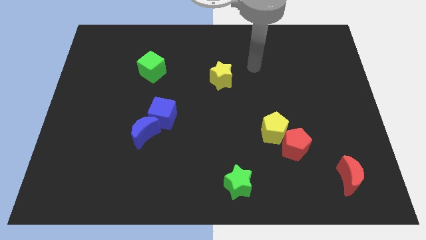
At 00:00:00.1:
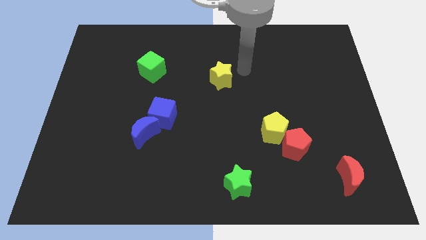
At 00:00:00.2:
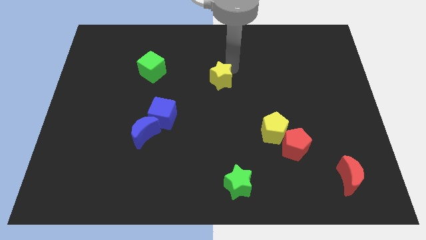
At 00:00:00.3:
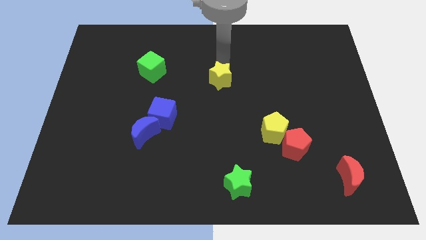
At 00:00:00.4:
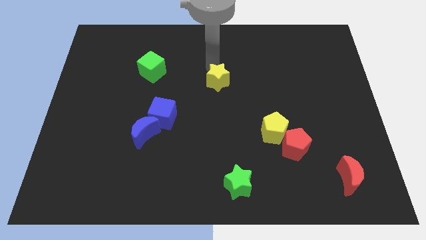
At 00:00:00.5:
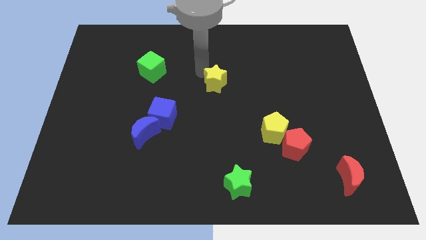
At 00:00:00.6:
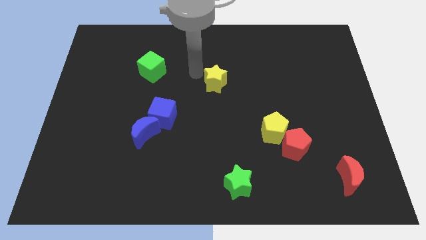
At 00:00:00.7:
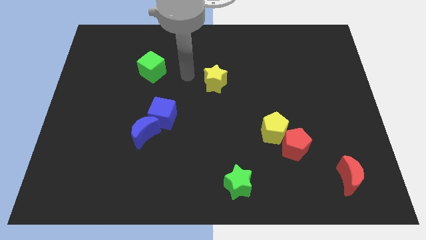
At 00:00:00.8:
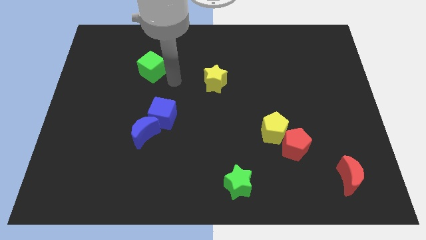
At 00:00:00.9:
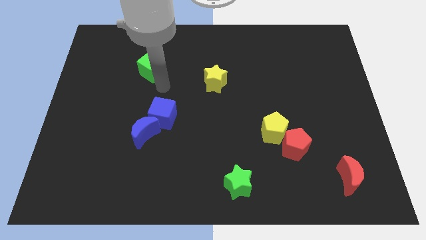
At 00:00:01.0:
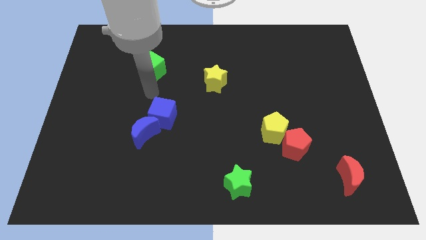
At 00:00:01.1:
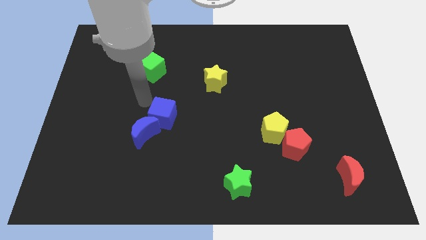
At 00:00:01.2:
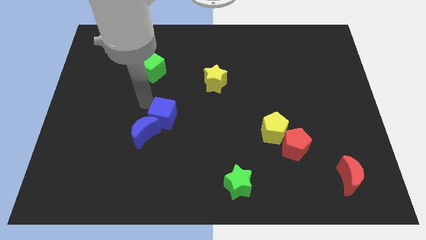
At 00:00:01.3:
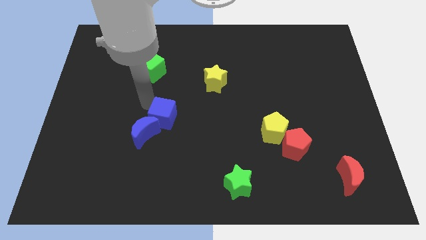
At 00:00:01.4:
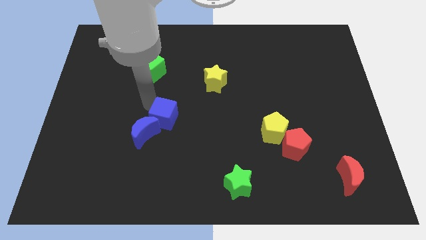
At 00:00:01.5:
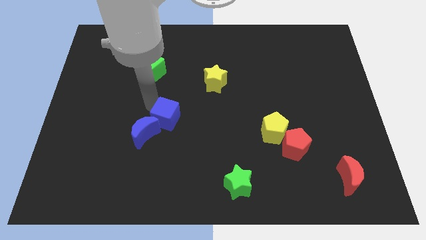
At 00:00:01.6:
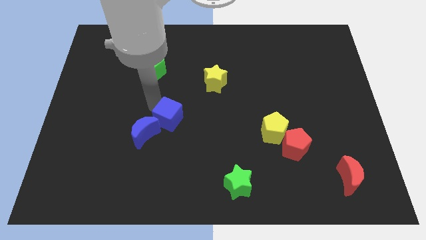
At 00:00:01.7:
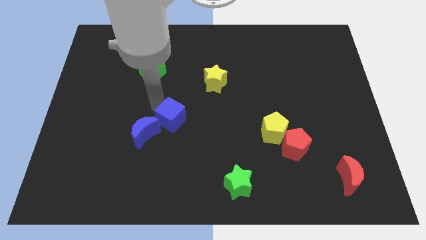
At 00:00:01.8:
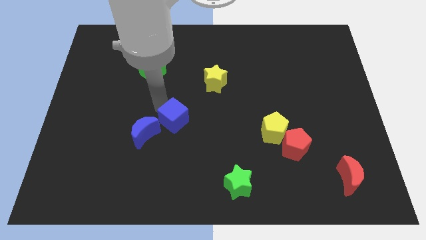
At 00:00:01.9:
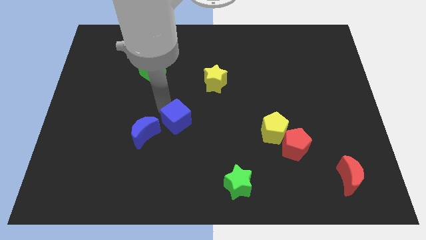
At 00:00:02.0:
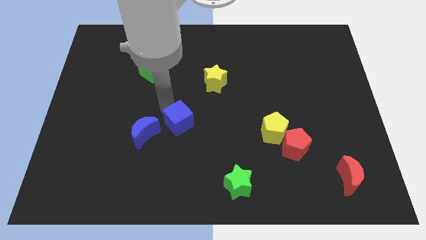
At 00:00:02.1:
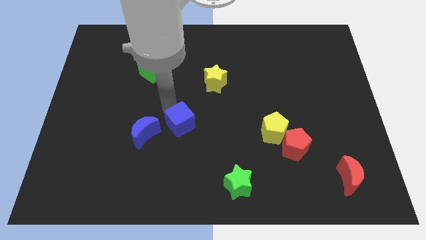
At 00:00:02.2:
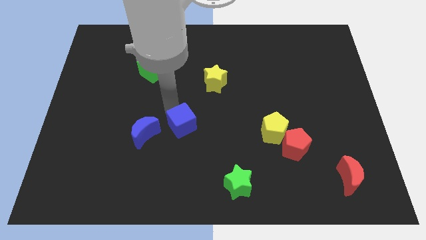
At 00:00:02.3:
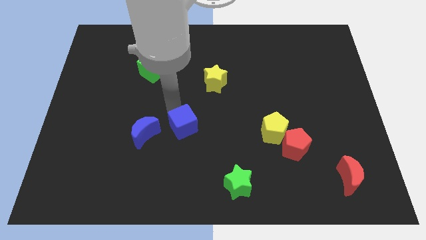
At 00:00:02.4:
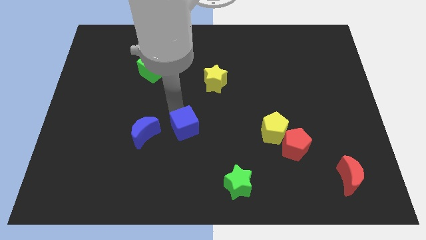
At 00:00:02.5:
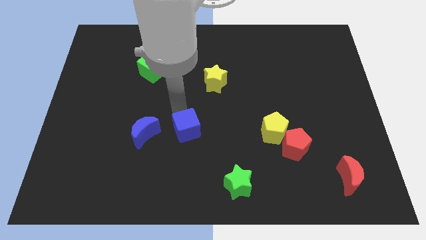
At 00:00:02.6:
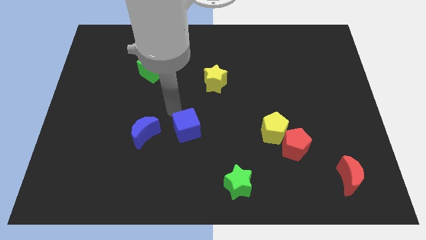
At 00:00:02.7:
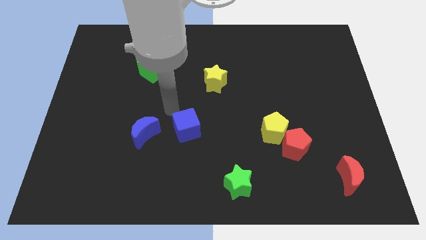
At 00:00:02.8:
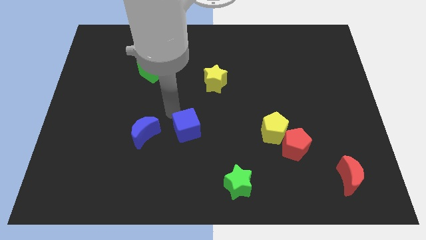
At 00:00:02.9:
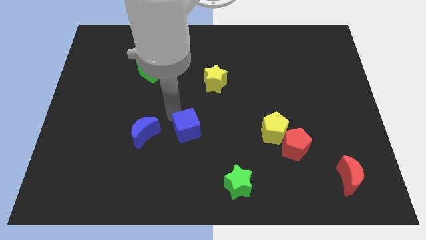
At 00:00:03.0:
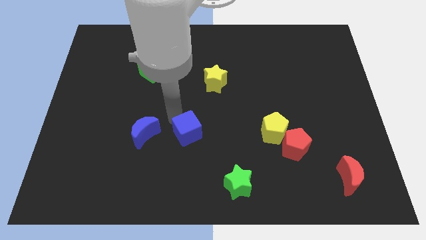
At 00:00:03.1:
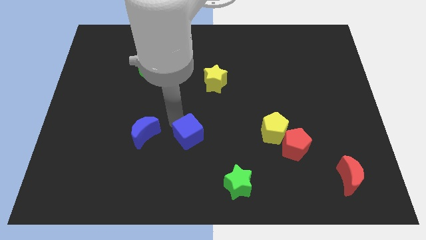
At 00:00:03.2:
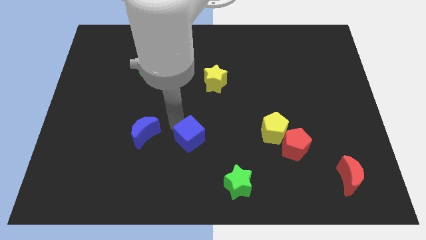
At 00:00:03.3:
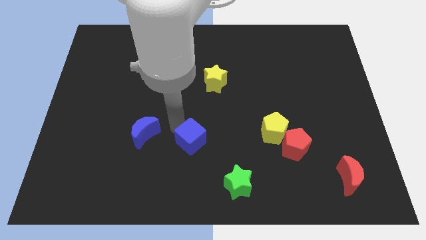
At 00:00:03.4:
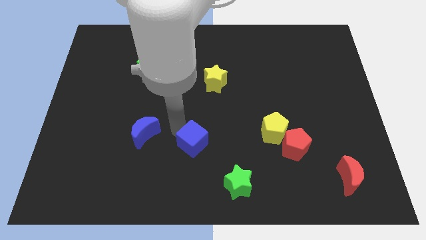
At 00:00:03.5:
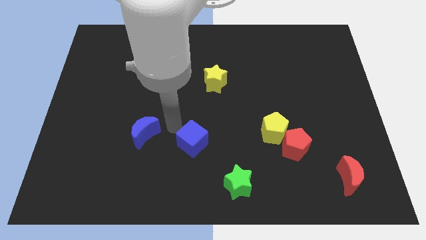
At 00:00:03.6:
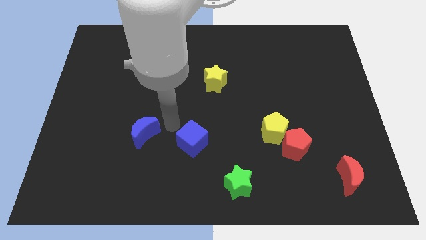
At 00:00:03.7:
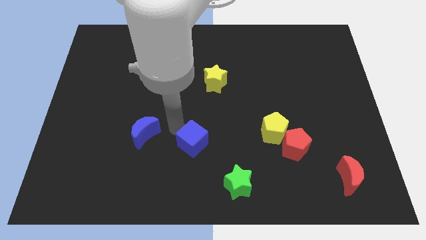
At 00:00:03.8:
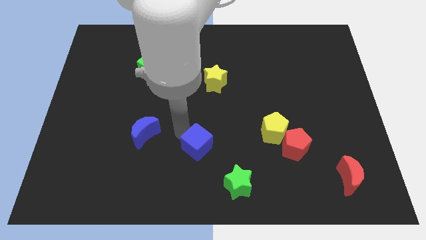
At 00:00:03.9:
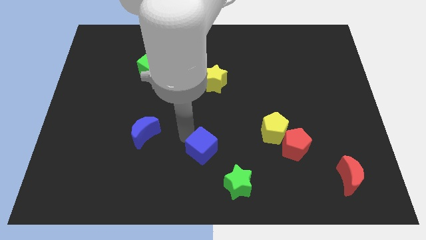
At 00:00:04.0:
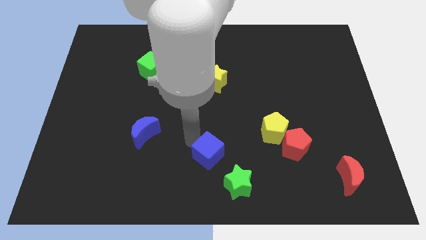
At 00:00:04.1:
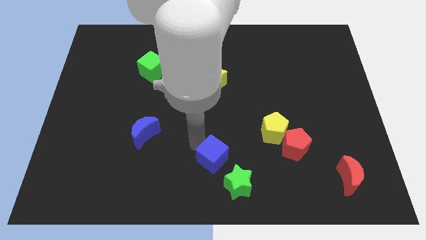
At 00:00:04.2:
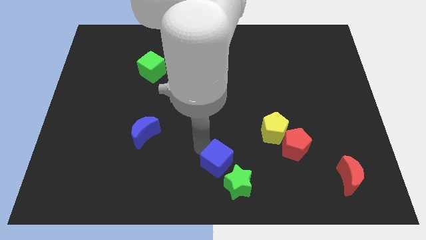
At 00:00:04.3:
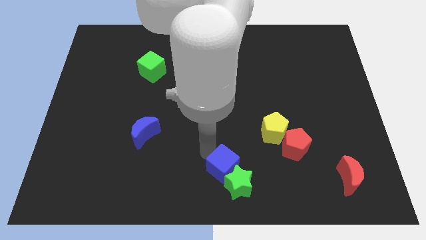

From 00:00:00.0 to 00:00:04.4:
slide the blue cube close to the green star

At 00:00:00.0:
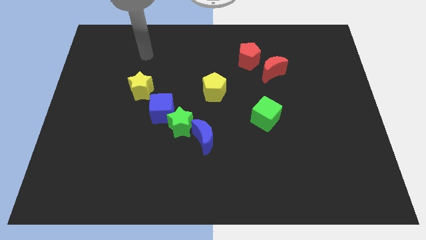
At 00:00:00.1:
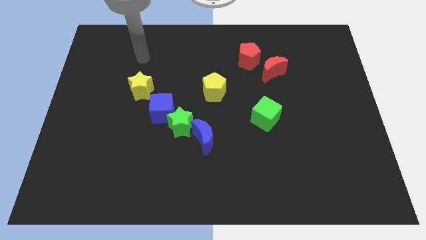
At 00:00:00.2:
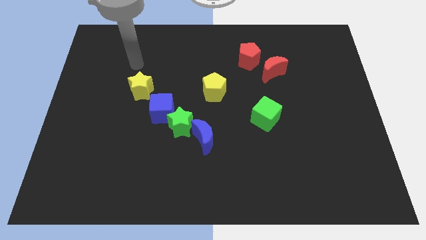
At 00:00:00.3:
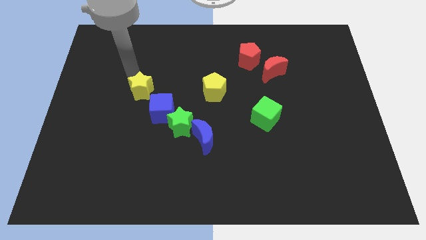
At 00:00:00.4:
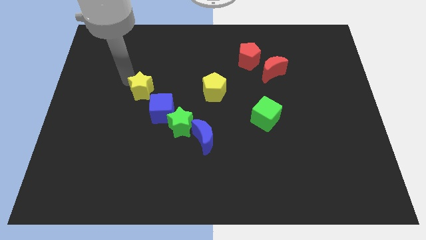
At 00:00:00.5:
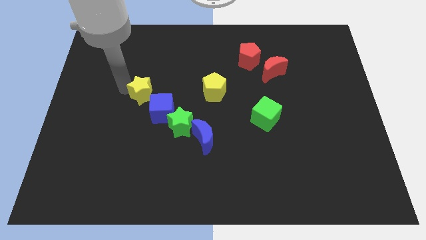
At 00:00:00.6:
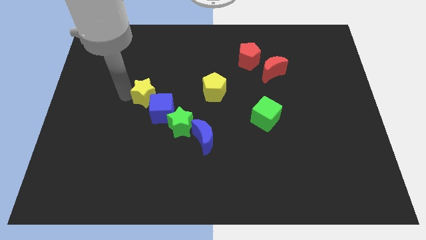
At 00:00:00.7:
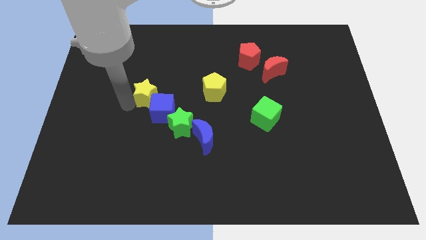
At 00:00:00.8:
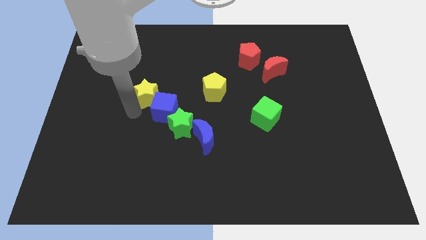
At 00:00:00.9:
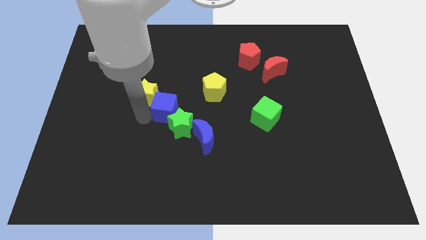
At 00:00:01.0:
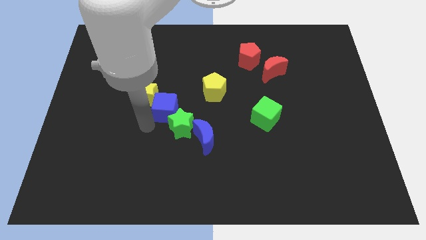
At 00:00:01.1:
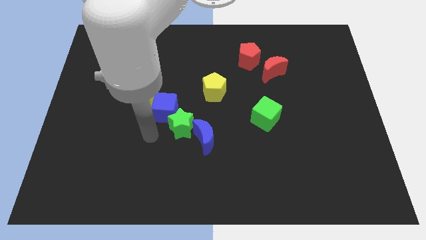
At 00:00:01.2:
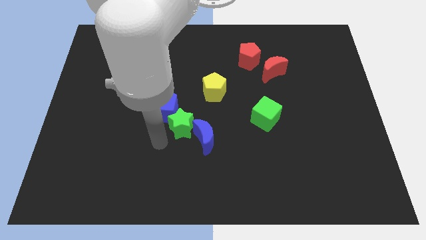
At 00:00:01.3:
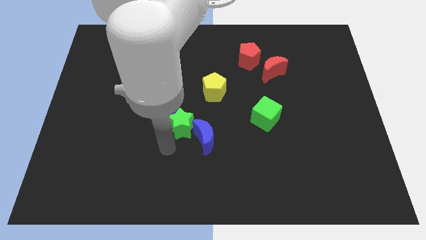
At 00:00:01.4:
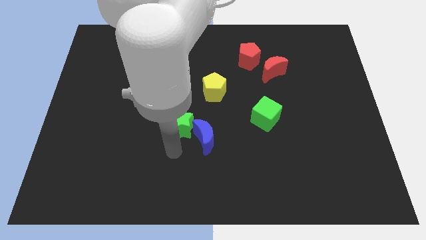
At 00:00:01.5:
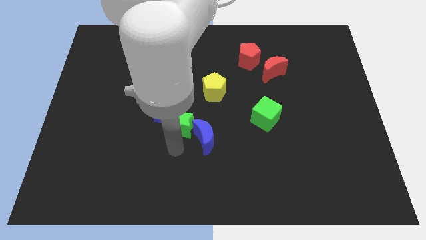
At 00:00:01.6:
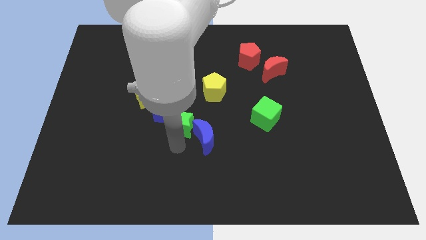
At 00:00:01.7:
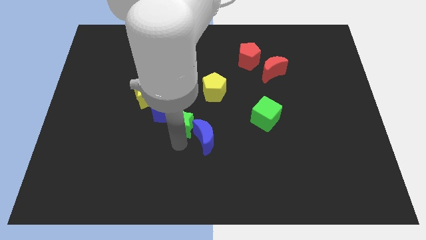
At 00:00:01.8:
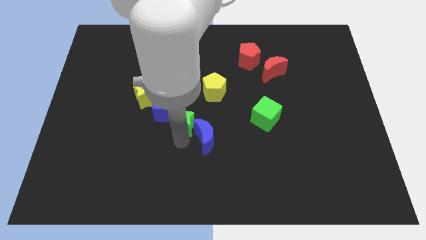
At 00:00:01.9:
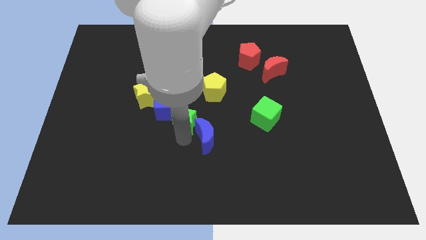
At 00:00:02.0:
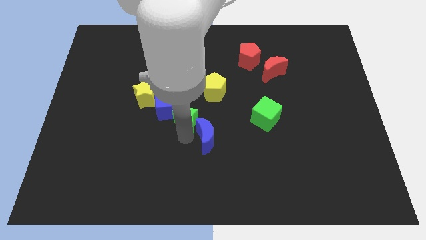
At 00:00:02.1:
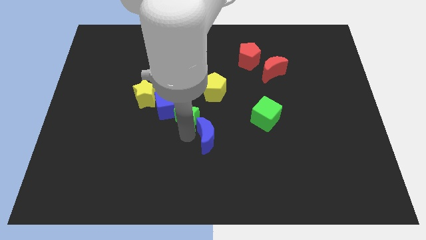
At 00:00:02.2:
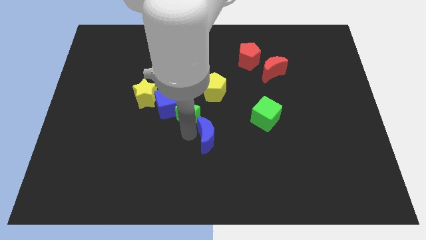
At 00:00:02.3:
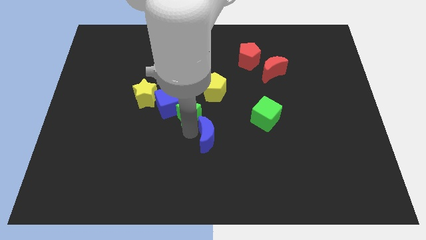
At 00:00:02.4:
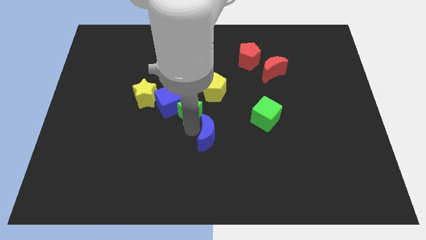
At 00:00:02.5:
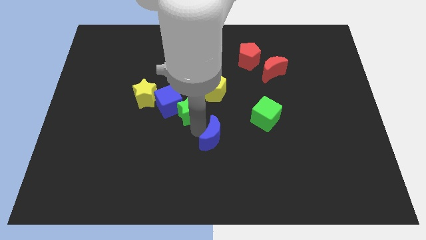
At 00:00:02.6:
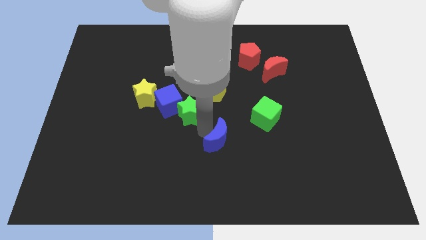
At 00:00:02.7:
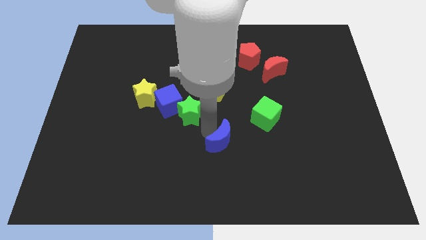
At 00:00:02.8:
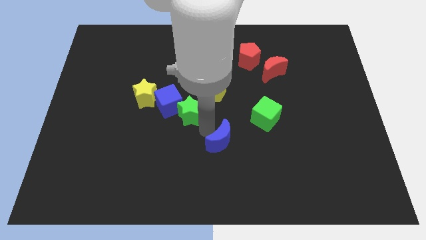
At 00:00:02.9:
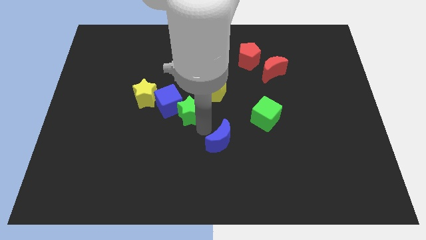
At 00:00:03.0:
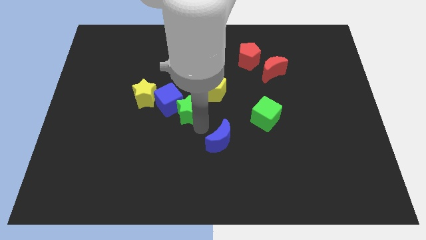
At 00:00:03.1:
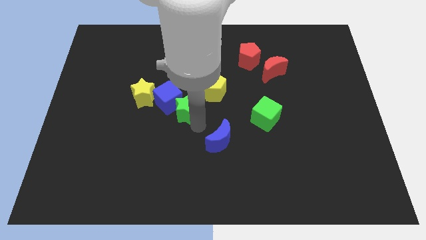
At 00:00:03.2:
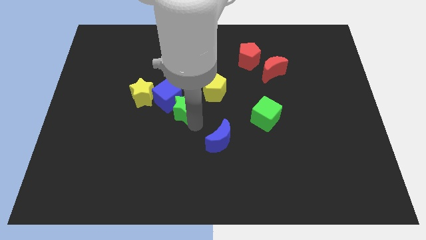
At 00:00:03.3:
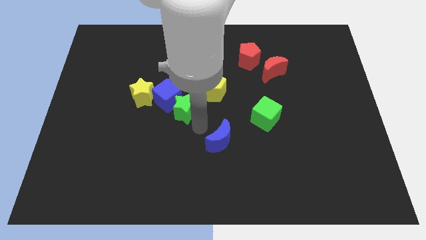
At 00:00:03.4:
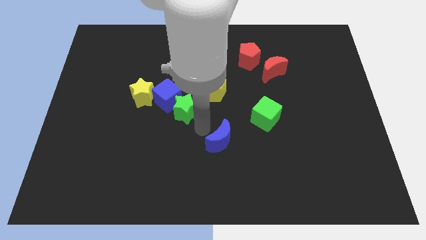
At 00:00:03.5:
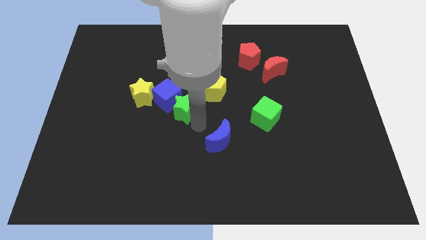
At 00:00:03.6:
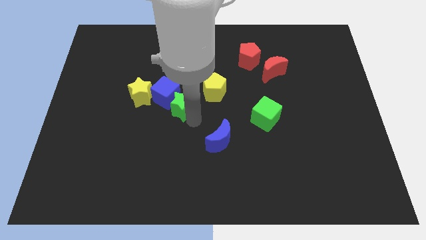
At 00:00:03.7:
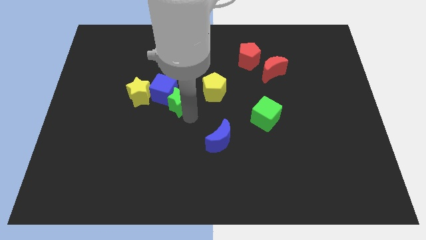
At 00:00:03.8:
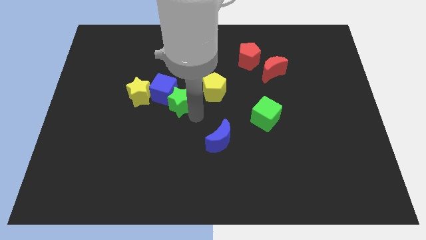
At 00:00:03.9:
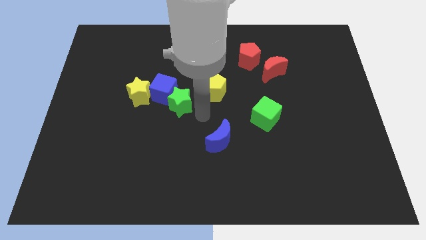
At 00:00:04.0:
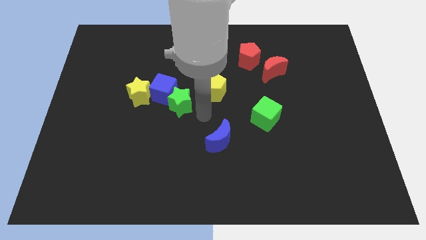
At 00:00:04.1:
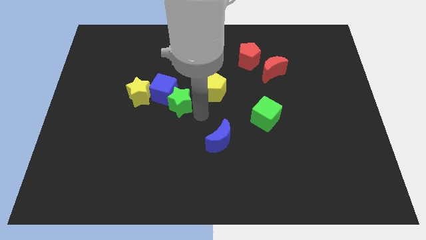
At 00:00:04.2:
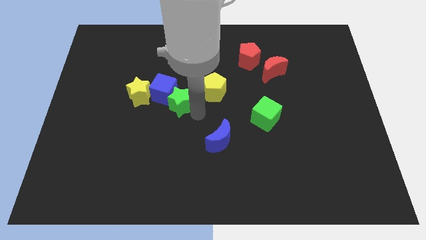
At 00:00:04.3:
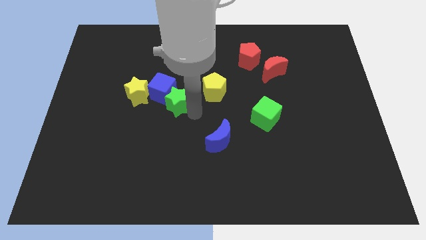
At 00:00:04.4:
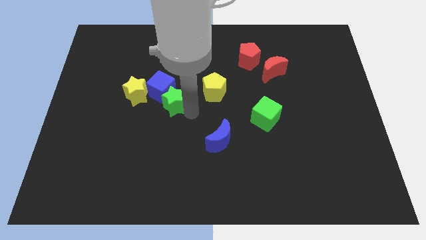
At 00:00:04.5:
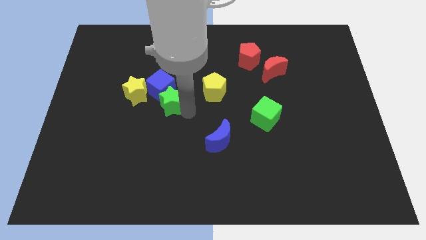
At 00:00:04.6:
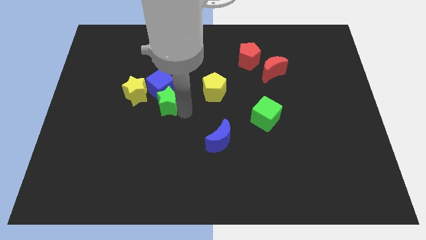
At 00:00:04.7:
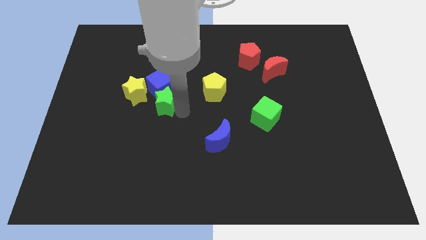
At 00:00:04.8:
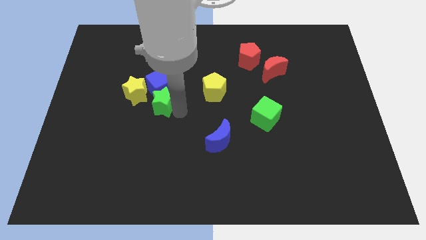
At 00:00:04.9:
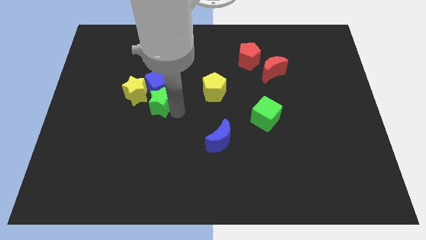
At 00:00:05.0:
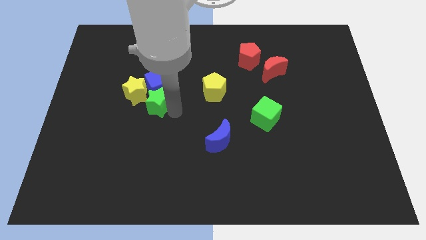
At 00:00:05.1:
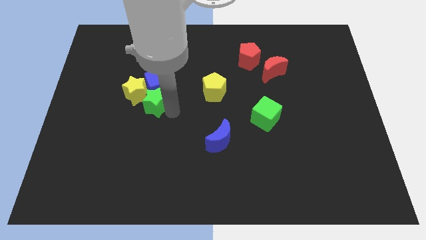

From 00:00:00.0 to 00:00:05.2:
move the green star to the yellow star
